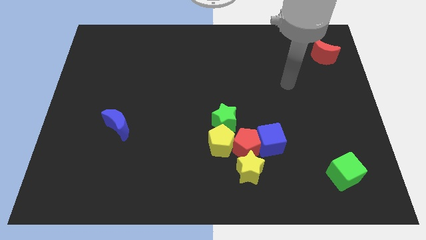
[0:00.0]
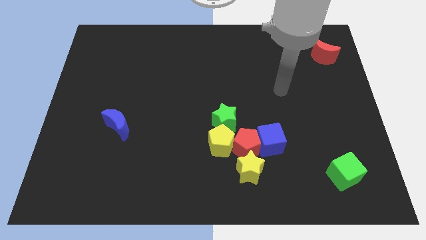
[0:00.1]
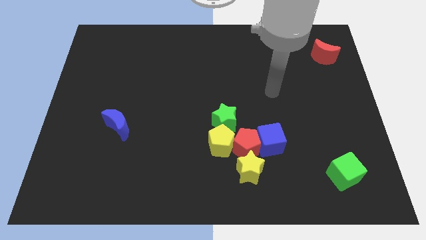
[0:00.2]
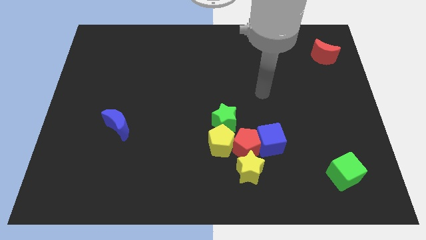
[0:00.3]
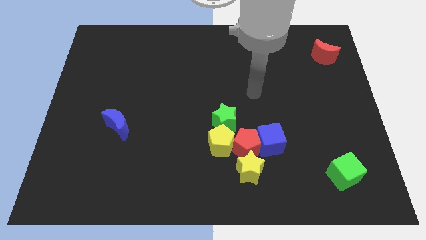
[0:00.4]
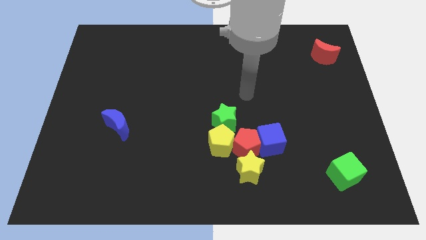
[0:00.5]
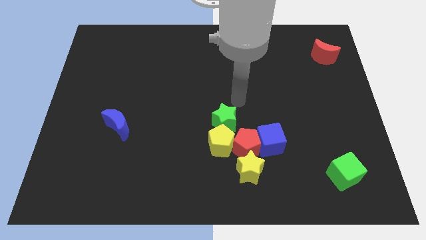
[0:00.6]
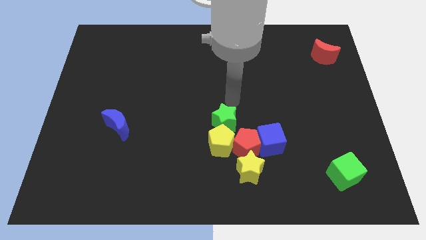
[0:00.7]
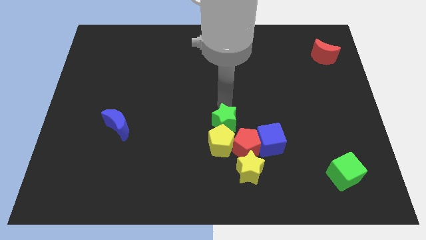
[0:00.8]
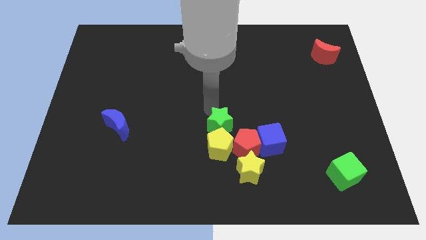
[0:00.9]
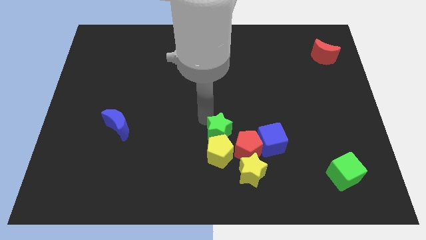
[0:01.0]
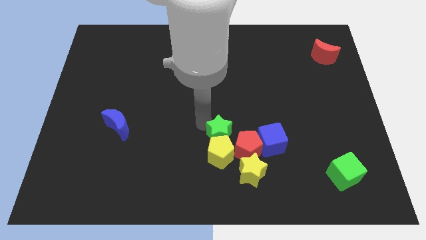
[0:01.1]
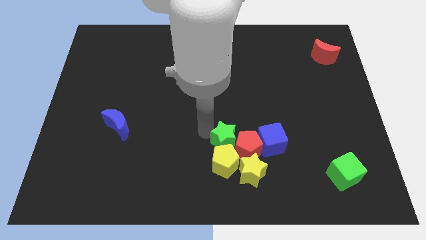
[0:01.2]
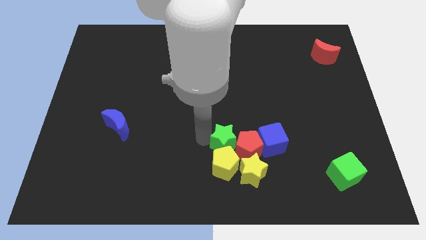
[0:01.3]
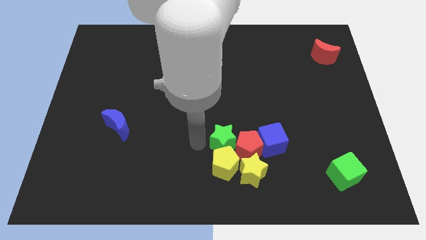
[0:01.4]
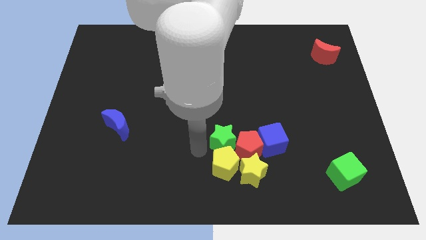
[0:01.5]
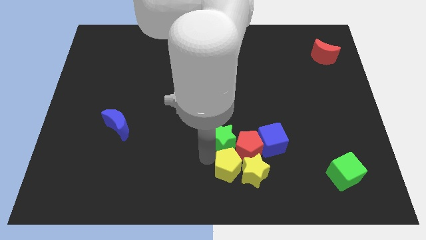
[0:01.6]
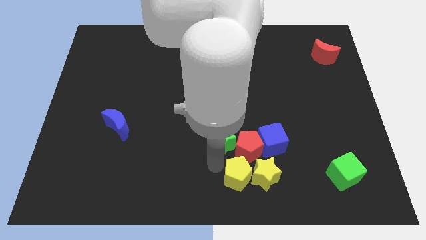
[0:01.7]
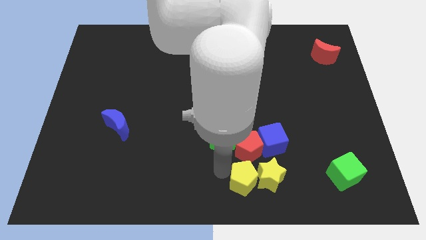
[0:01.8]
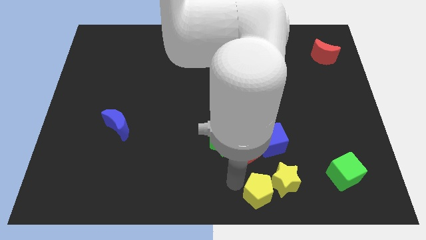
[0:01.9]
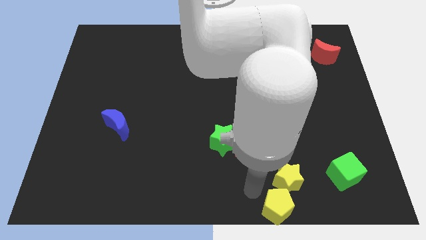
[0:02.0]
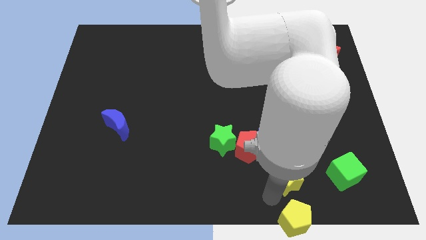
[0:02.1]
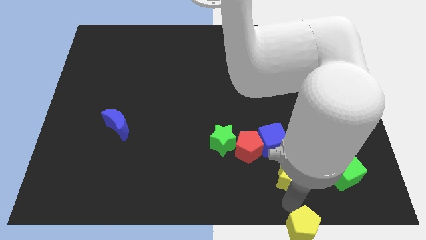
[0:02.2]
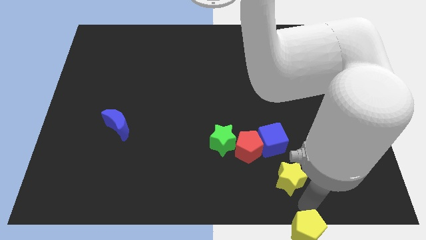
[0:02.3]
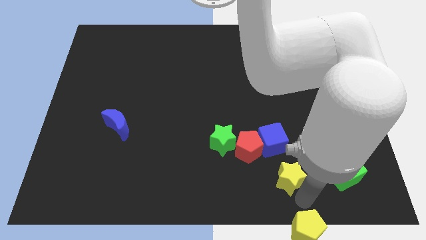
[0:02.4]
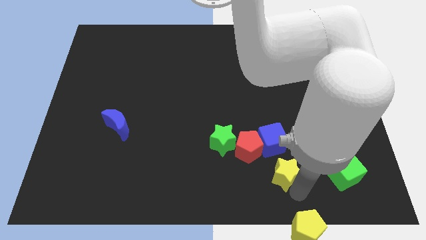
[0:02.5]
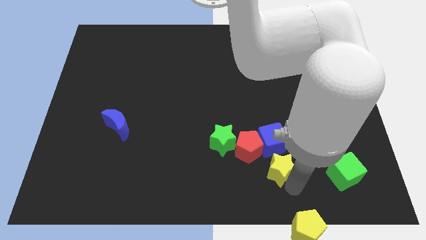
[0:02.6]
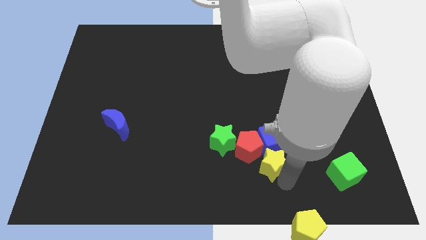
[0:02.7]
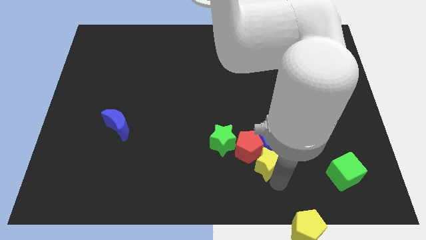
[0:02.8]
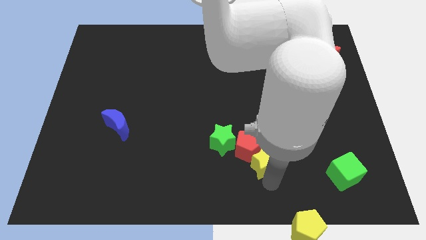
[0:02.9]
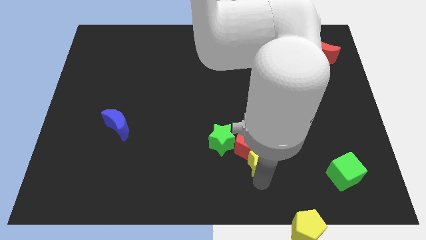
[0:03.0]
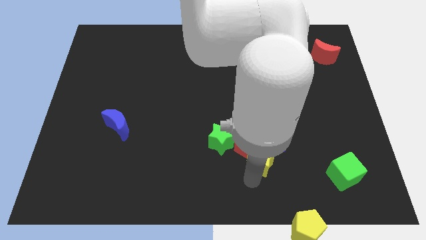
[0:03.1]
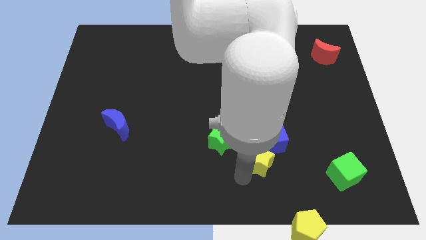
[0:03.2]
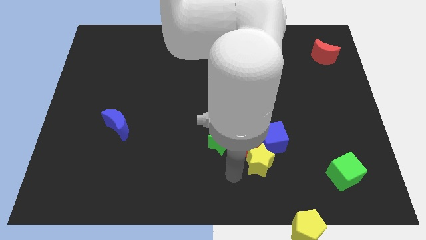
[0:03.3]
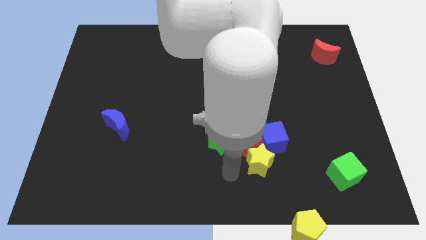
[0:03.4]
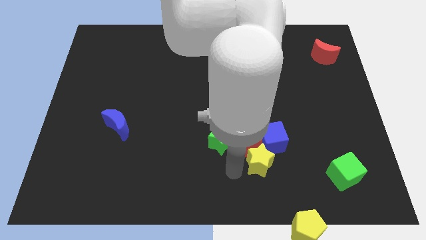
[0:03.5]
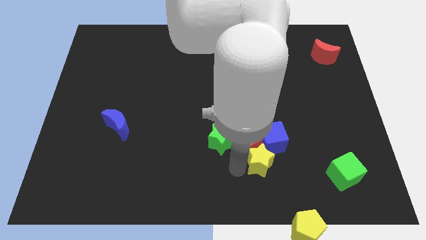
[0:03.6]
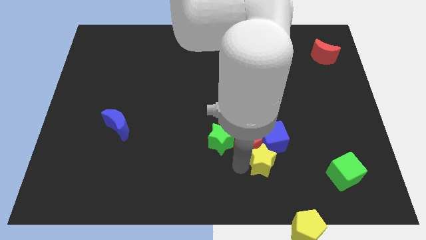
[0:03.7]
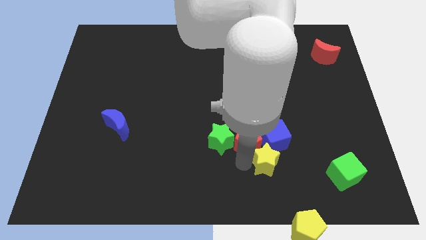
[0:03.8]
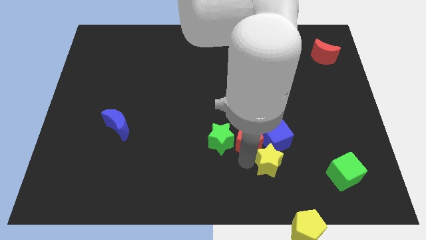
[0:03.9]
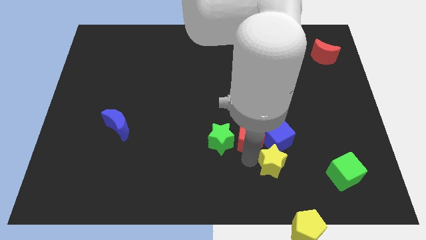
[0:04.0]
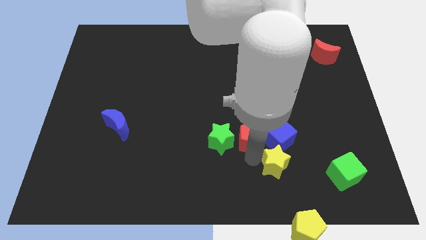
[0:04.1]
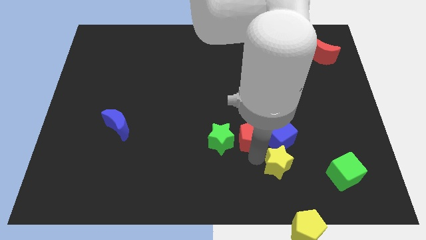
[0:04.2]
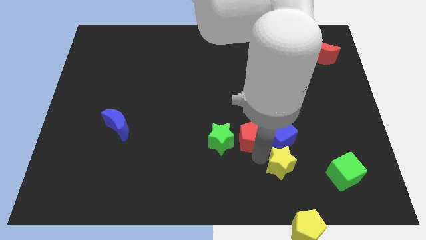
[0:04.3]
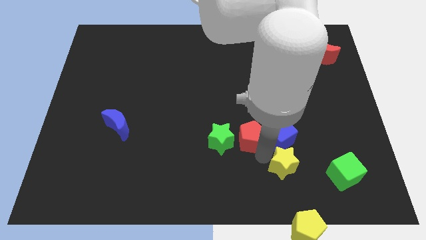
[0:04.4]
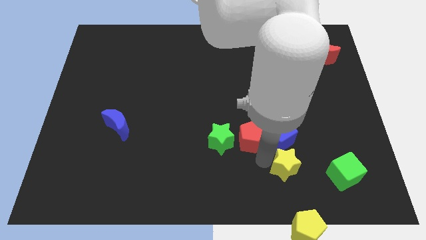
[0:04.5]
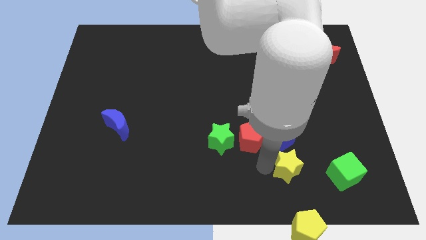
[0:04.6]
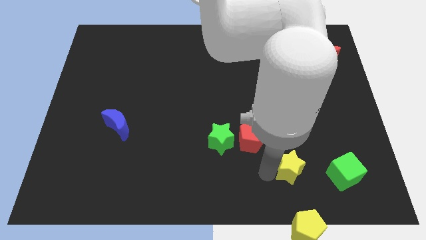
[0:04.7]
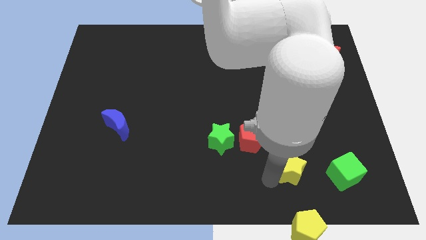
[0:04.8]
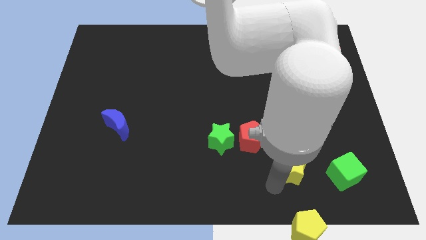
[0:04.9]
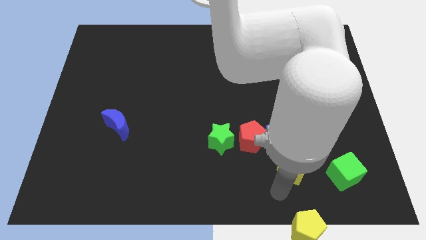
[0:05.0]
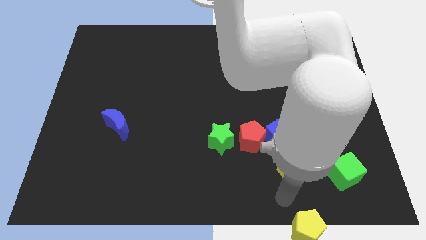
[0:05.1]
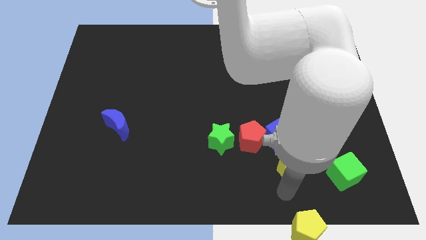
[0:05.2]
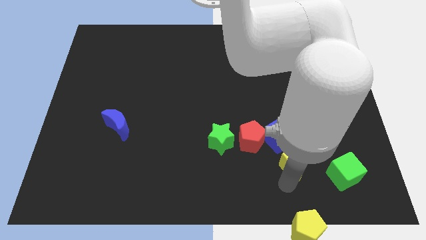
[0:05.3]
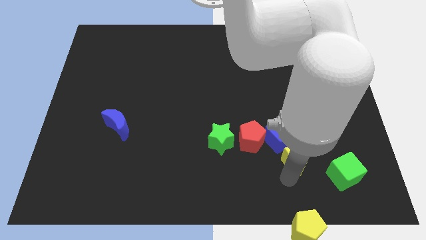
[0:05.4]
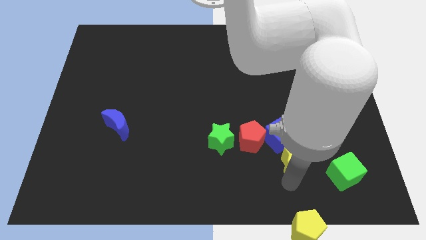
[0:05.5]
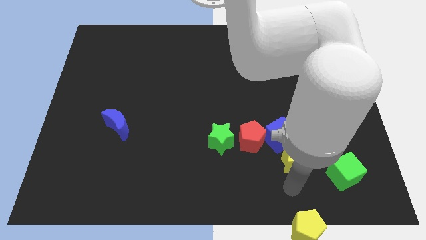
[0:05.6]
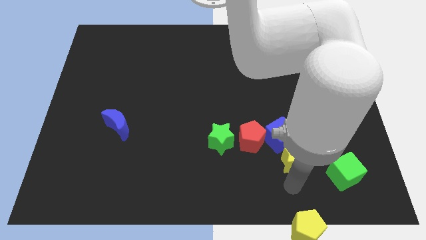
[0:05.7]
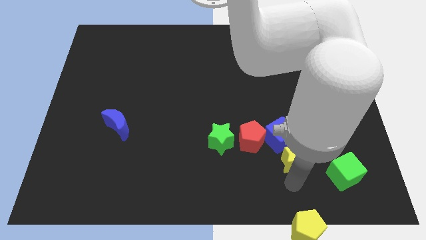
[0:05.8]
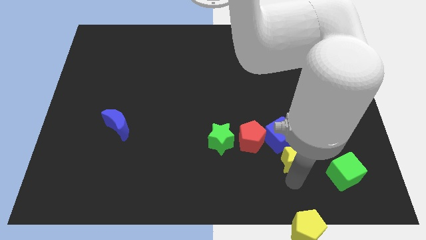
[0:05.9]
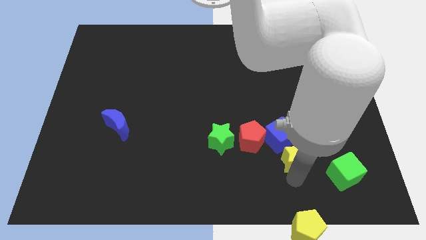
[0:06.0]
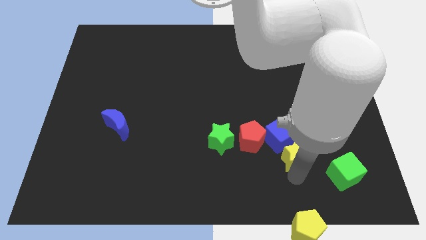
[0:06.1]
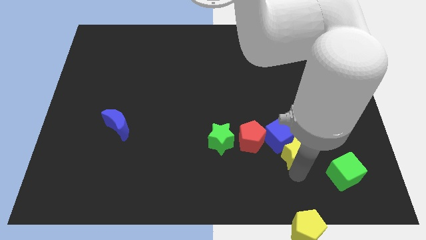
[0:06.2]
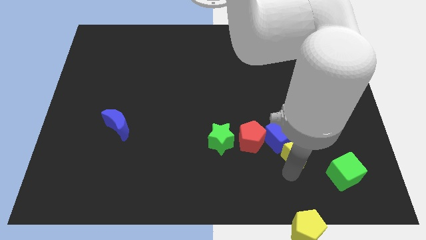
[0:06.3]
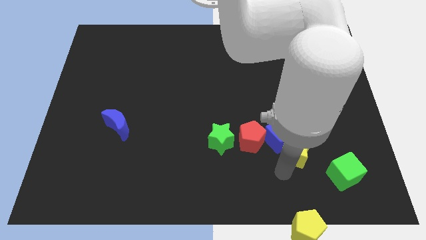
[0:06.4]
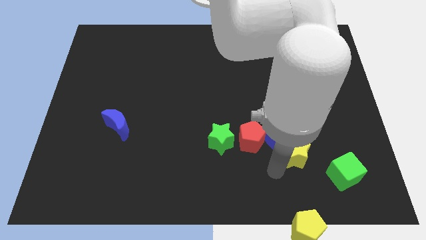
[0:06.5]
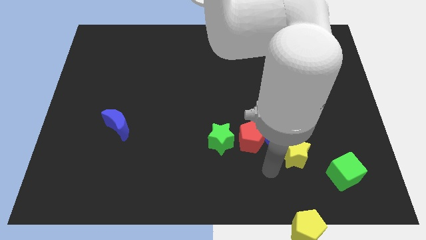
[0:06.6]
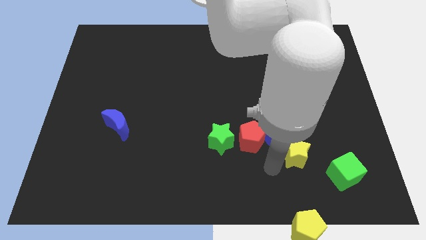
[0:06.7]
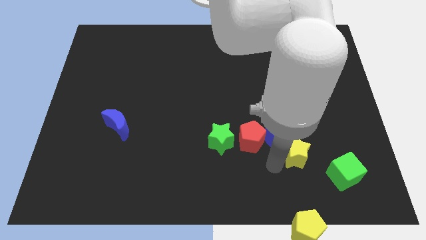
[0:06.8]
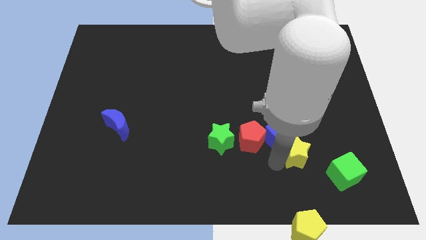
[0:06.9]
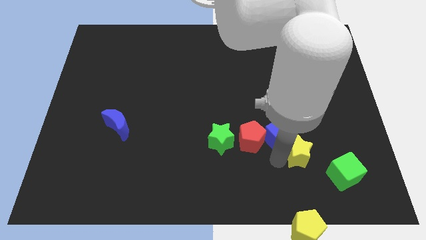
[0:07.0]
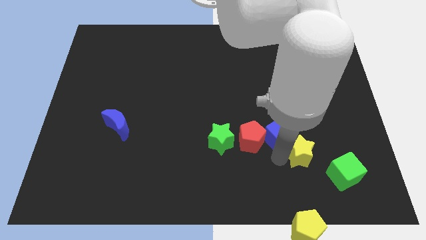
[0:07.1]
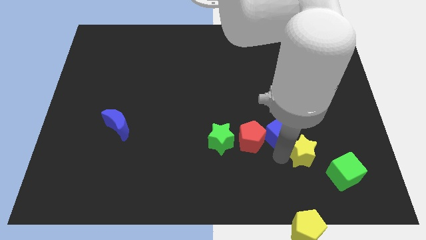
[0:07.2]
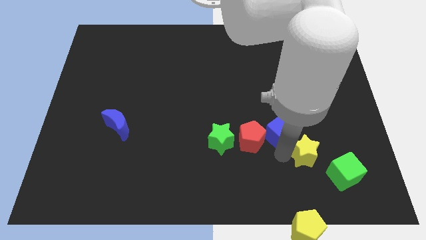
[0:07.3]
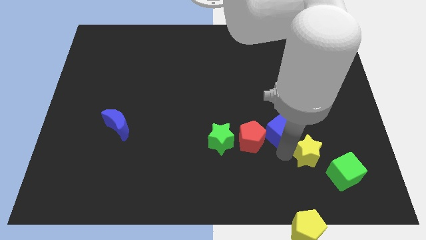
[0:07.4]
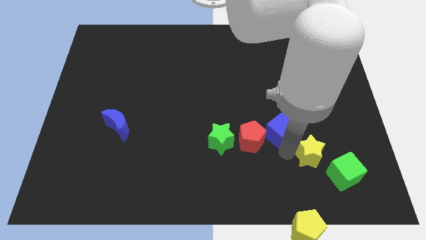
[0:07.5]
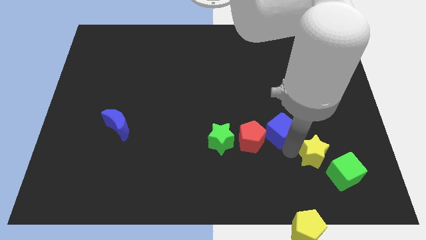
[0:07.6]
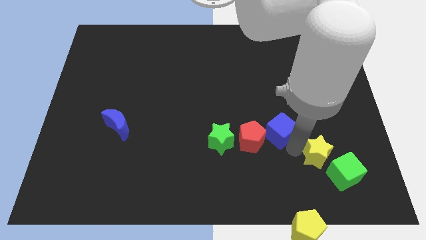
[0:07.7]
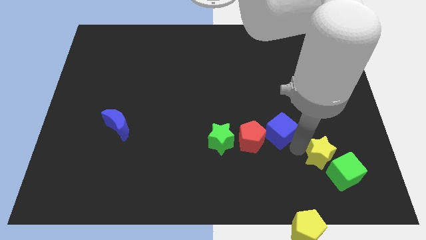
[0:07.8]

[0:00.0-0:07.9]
push the yellow star above the green cube
